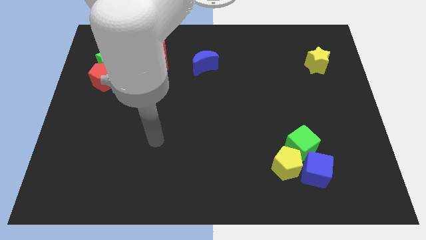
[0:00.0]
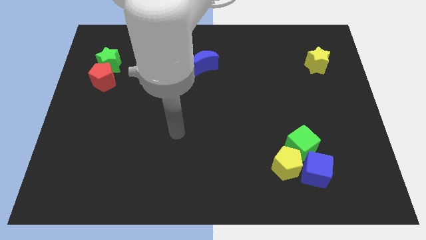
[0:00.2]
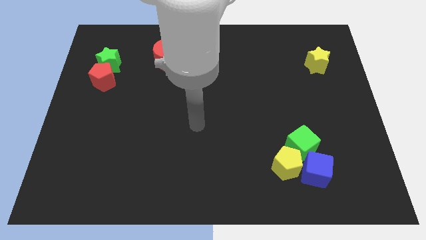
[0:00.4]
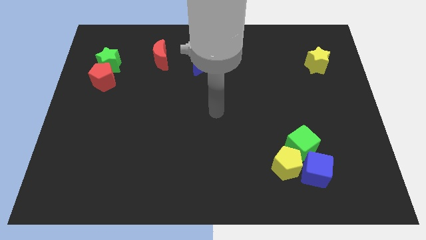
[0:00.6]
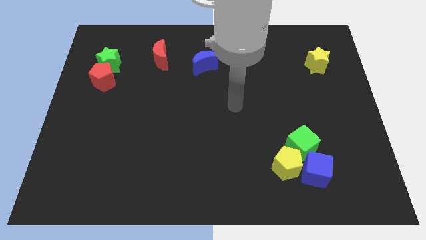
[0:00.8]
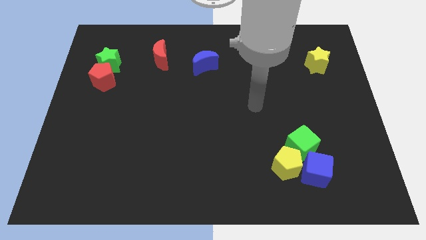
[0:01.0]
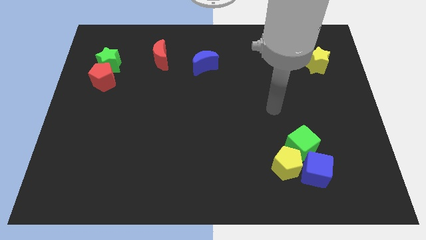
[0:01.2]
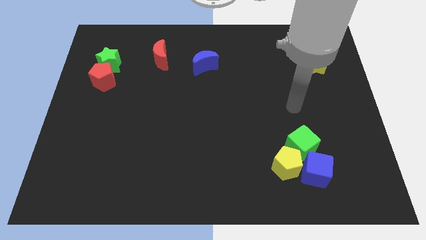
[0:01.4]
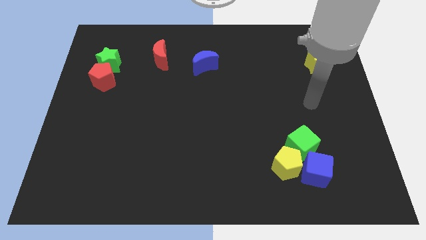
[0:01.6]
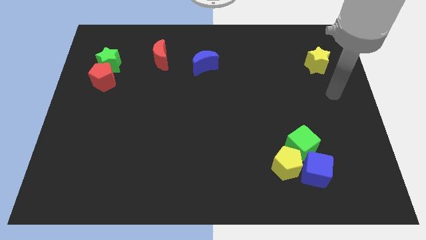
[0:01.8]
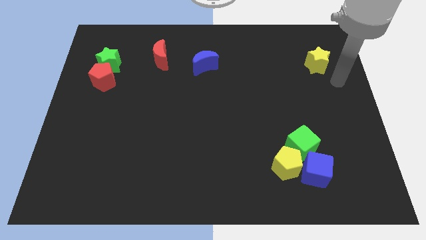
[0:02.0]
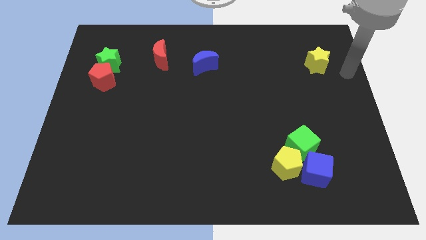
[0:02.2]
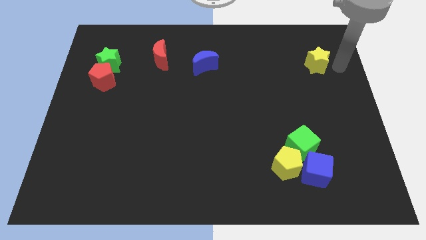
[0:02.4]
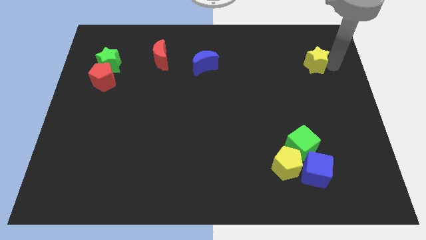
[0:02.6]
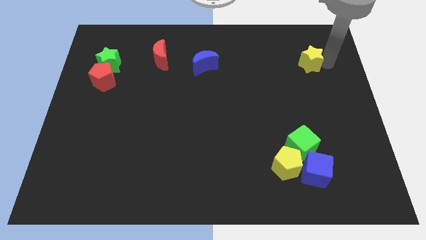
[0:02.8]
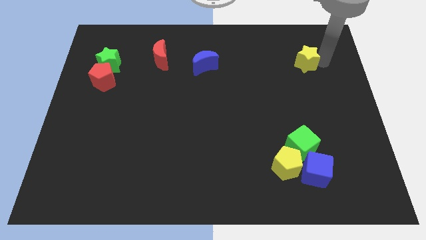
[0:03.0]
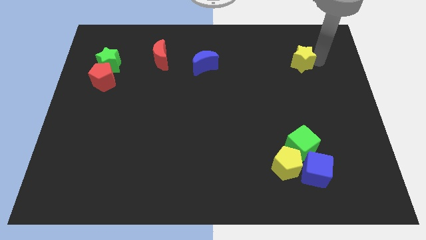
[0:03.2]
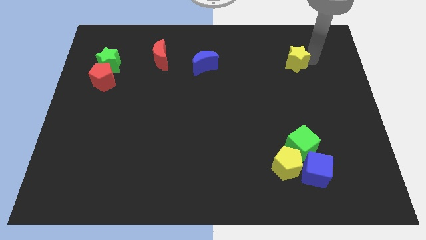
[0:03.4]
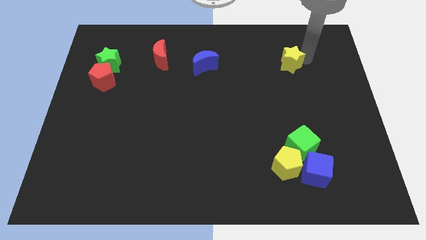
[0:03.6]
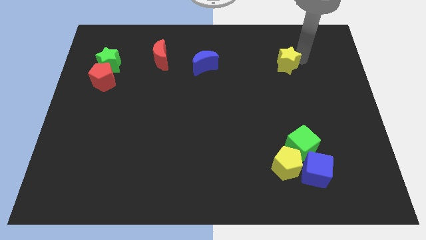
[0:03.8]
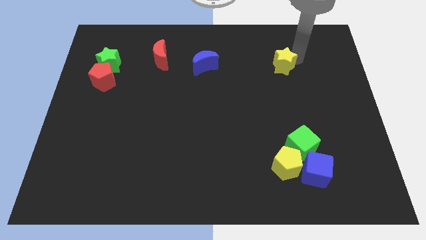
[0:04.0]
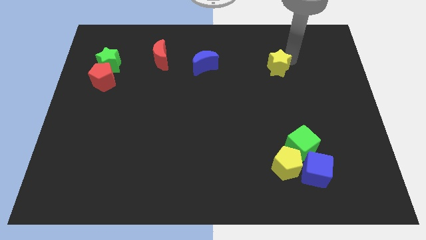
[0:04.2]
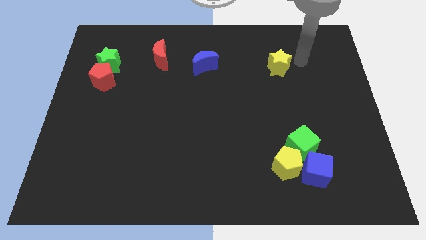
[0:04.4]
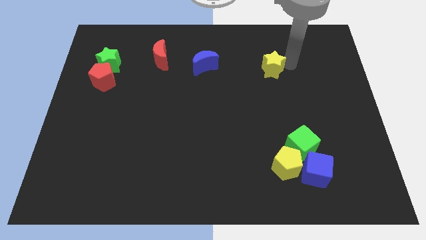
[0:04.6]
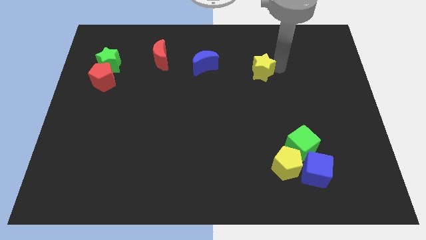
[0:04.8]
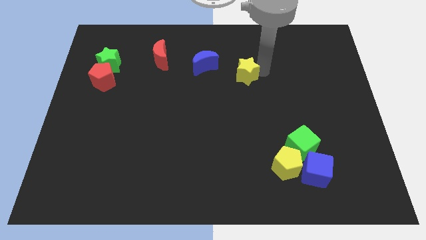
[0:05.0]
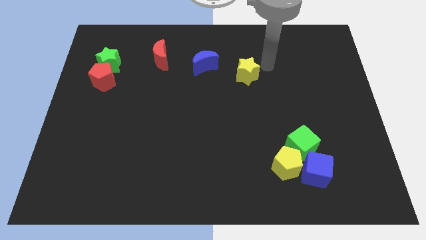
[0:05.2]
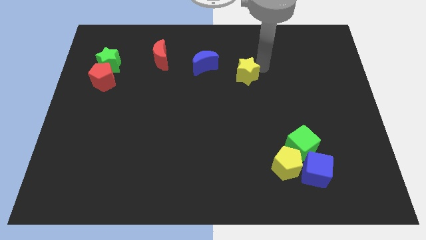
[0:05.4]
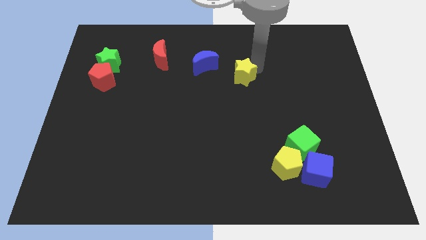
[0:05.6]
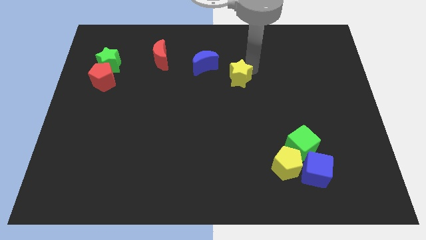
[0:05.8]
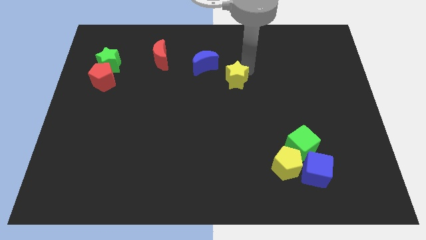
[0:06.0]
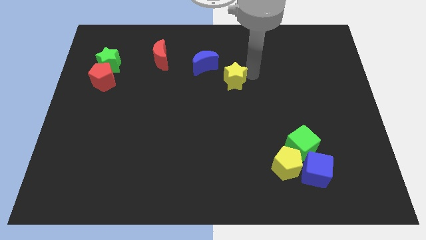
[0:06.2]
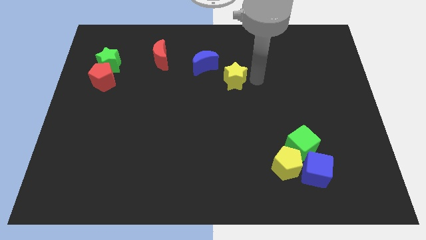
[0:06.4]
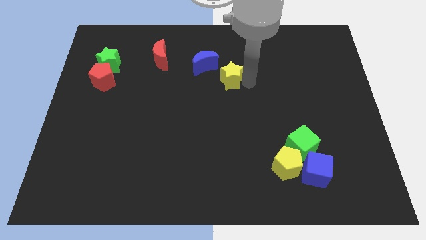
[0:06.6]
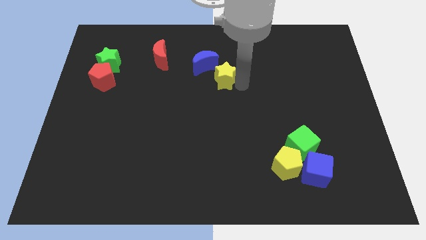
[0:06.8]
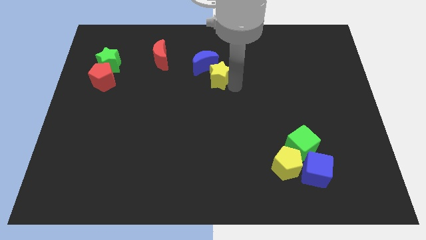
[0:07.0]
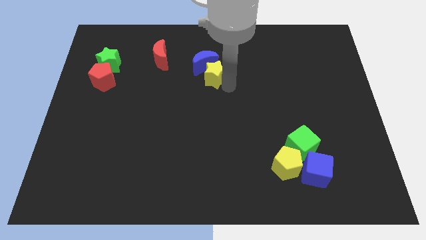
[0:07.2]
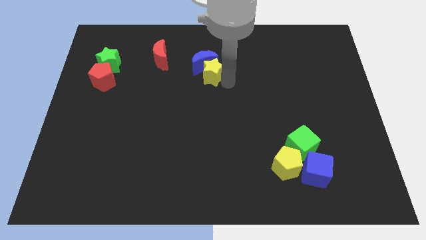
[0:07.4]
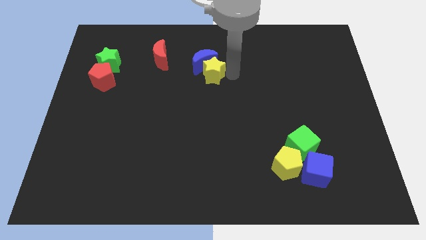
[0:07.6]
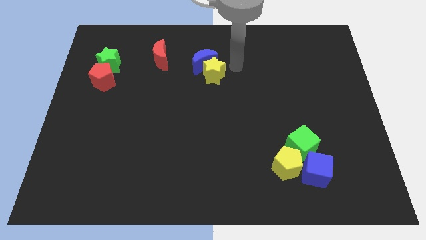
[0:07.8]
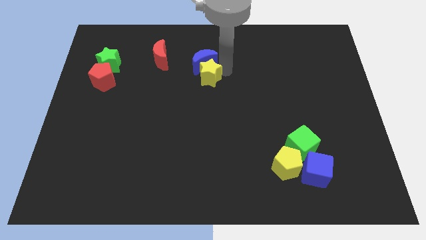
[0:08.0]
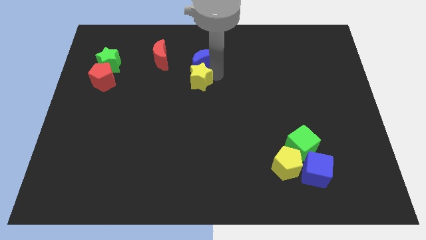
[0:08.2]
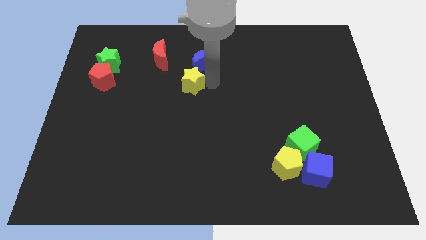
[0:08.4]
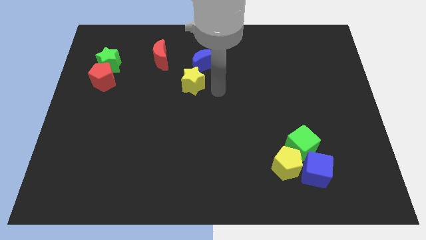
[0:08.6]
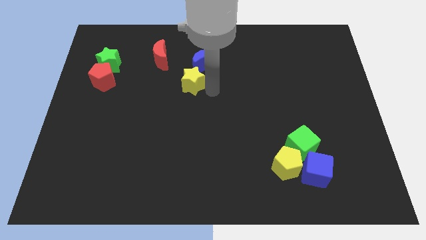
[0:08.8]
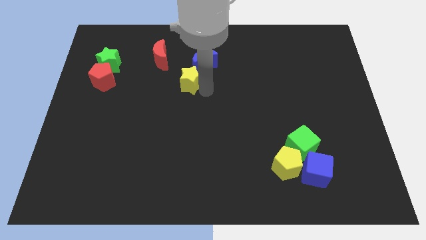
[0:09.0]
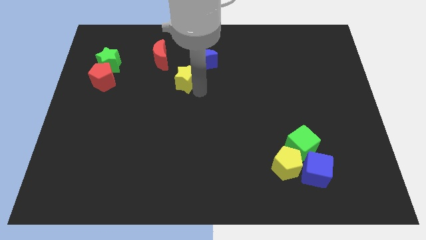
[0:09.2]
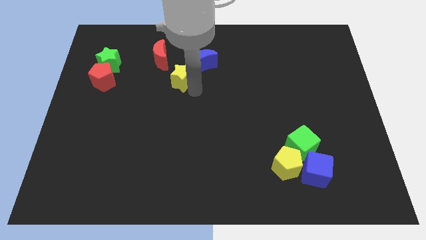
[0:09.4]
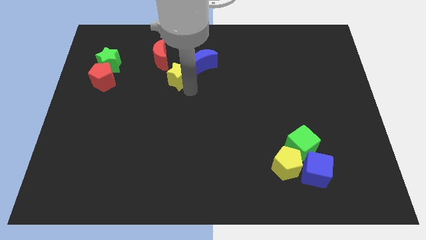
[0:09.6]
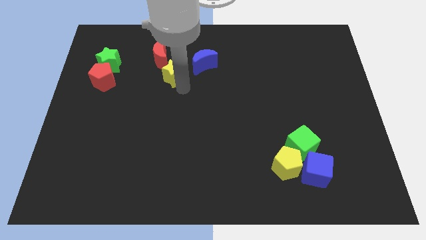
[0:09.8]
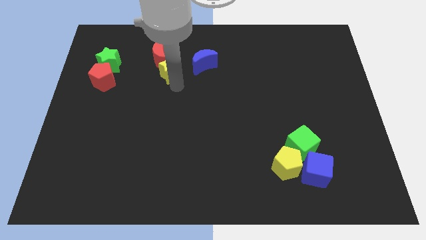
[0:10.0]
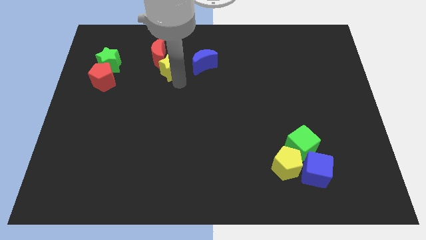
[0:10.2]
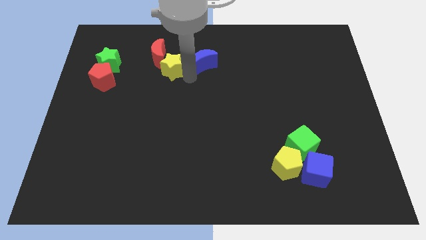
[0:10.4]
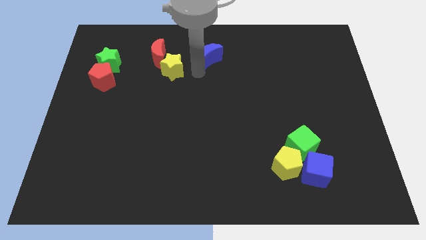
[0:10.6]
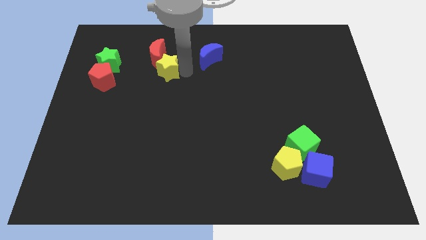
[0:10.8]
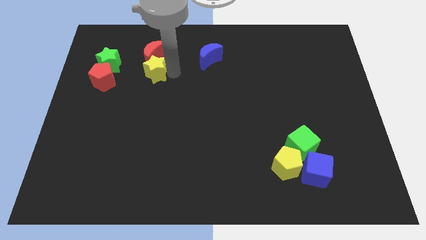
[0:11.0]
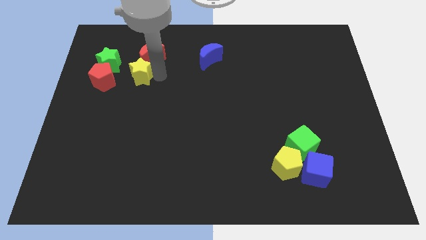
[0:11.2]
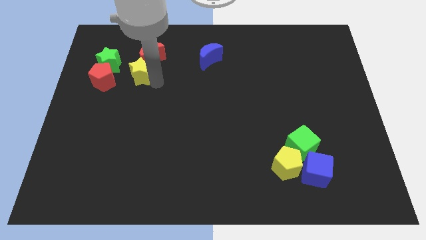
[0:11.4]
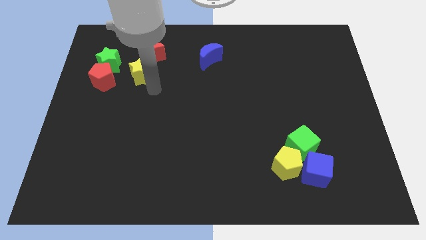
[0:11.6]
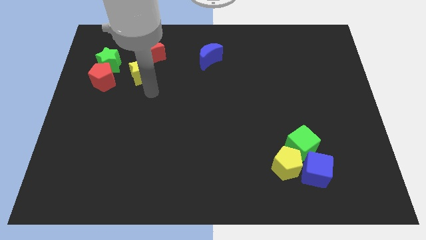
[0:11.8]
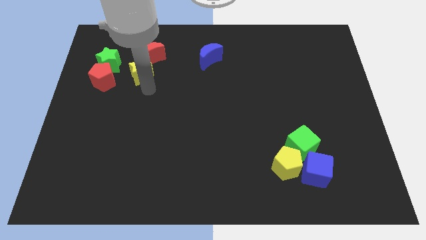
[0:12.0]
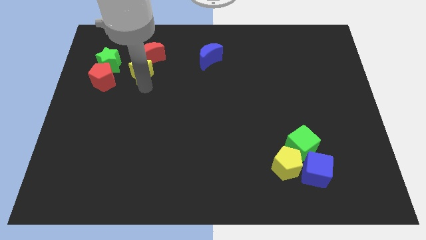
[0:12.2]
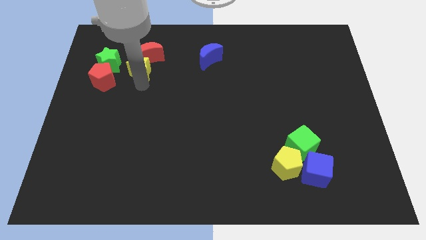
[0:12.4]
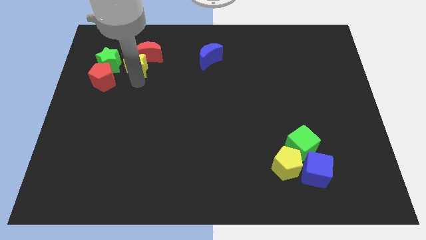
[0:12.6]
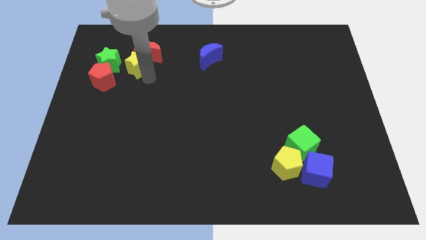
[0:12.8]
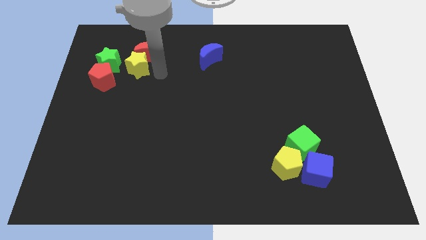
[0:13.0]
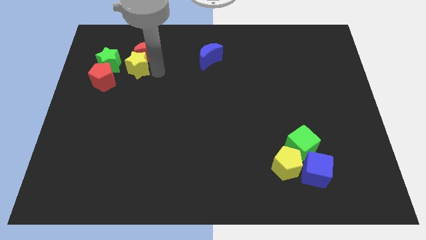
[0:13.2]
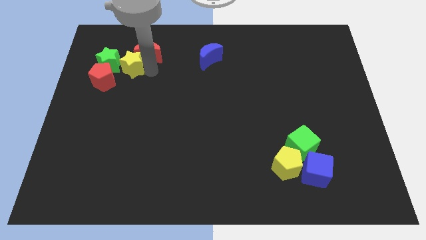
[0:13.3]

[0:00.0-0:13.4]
put the yellow star close to the green star
